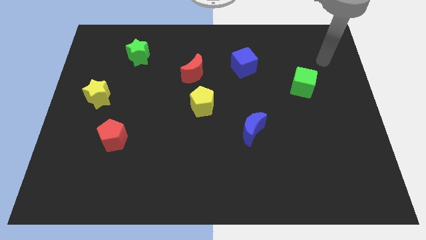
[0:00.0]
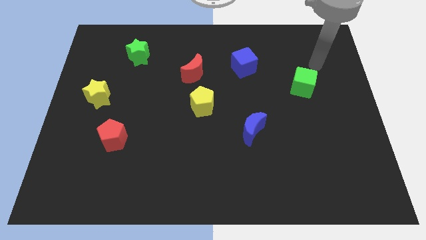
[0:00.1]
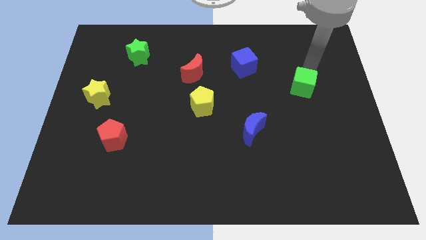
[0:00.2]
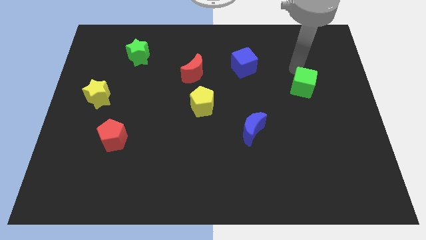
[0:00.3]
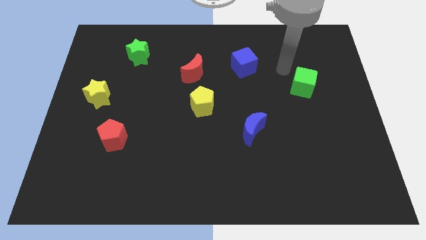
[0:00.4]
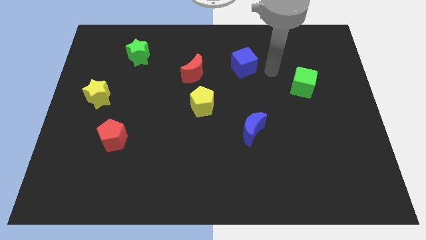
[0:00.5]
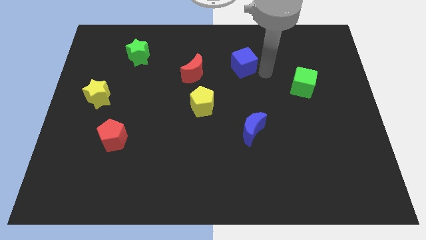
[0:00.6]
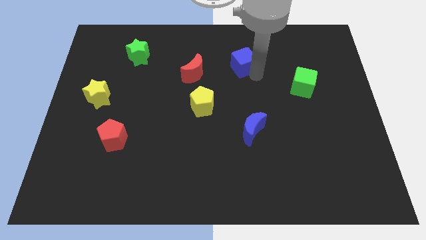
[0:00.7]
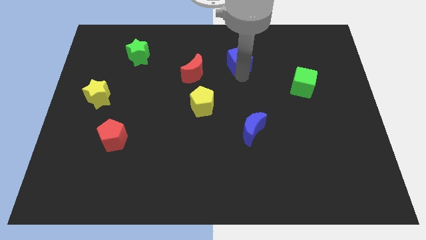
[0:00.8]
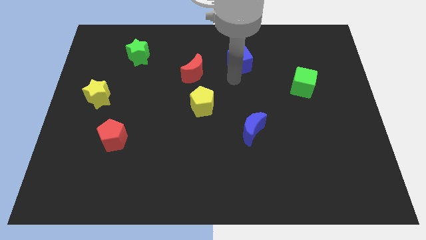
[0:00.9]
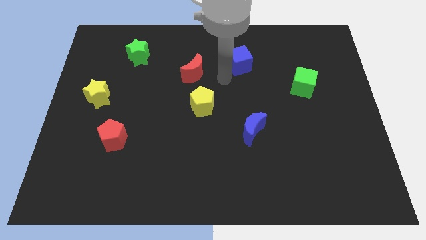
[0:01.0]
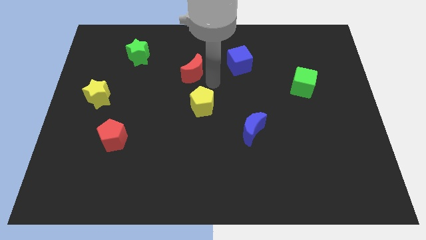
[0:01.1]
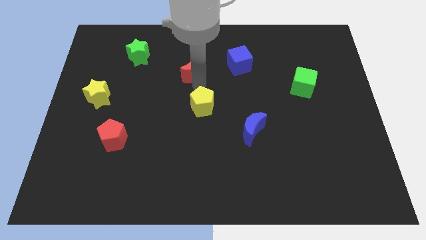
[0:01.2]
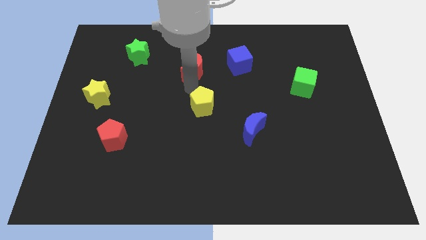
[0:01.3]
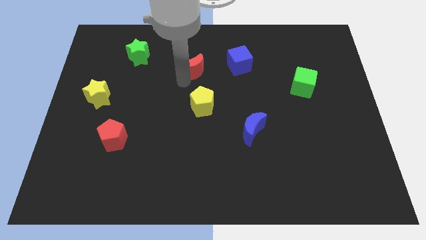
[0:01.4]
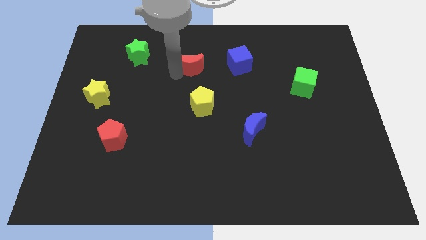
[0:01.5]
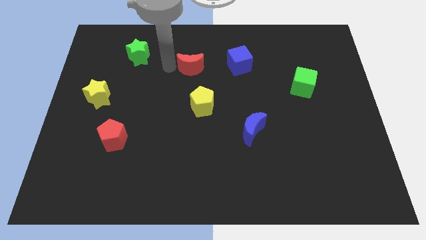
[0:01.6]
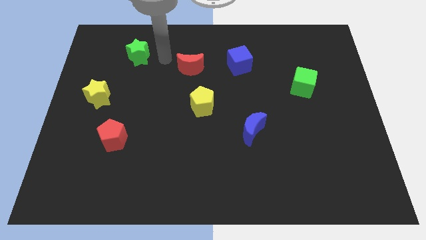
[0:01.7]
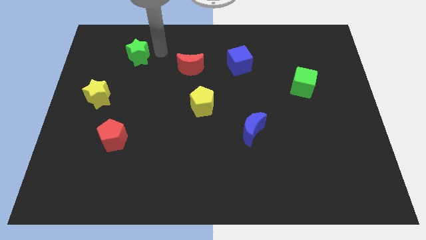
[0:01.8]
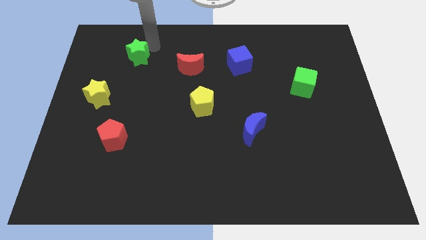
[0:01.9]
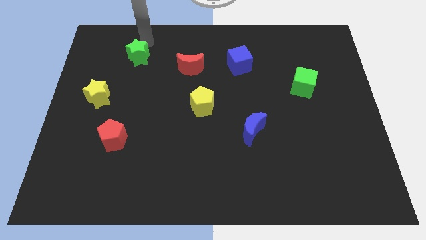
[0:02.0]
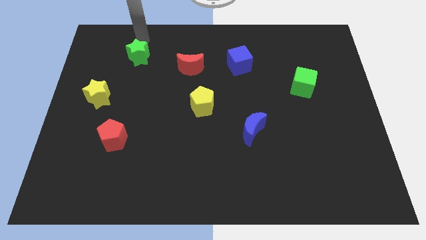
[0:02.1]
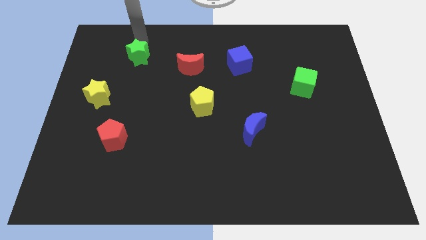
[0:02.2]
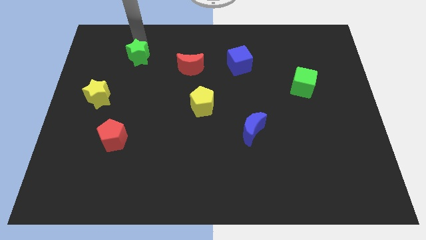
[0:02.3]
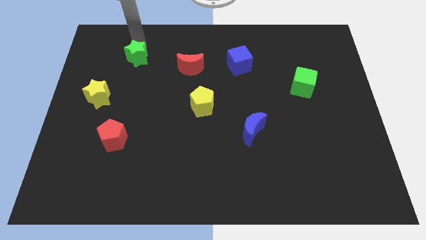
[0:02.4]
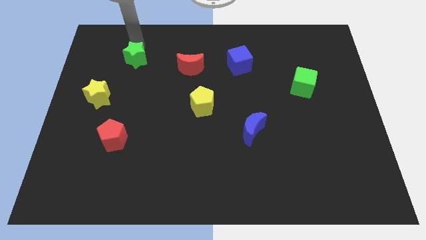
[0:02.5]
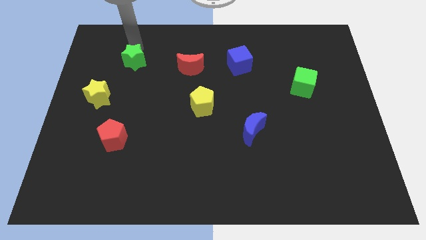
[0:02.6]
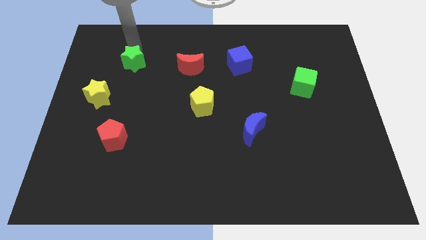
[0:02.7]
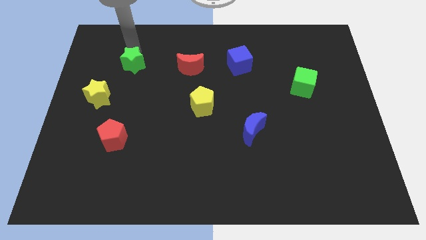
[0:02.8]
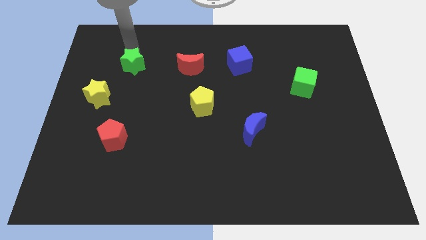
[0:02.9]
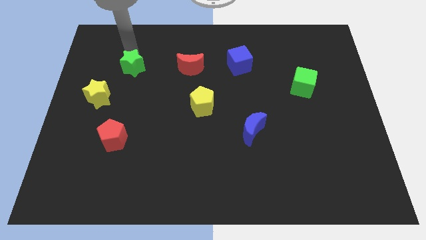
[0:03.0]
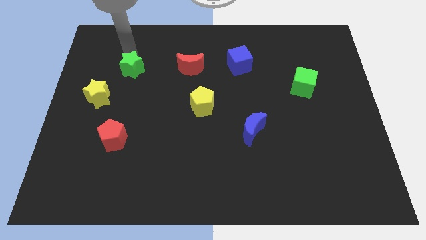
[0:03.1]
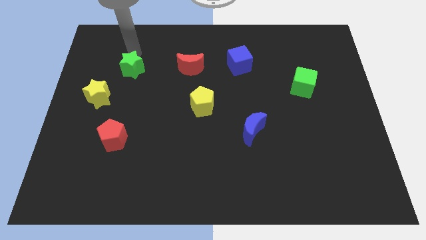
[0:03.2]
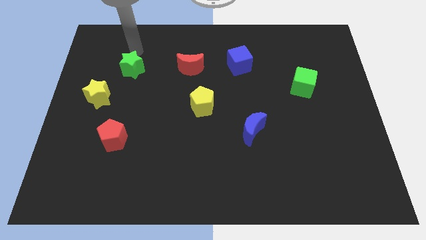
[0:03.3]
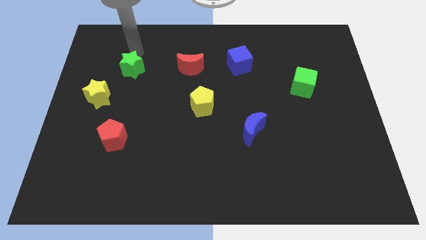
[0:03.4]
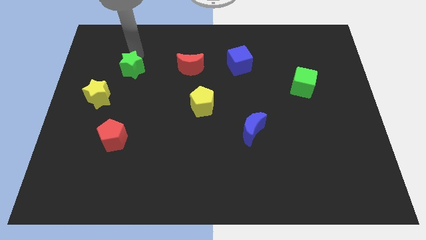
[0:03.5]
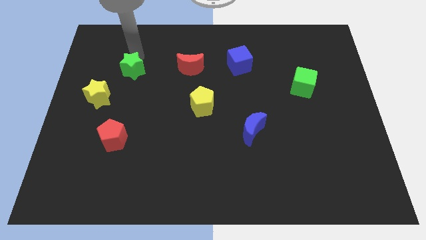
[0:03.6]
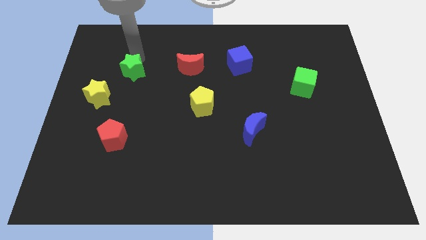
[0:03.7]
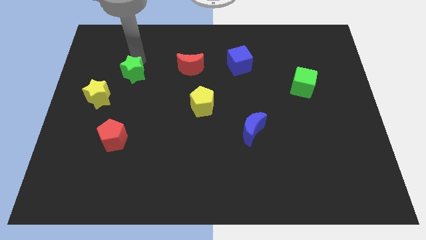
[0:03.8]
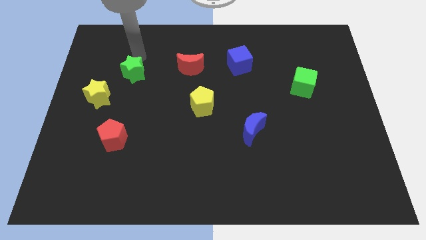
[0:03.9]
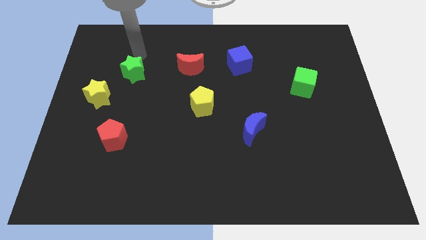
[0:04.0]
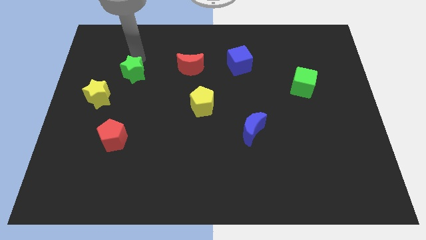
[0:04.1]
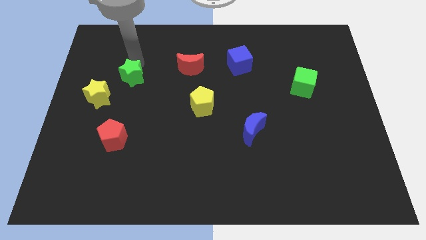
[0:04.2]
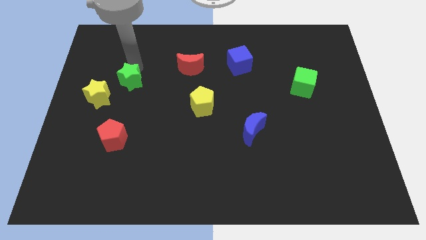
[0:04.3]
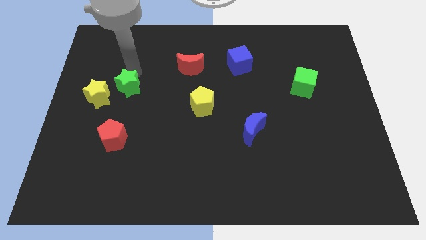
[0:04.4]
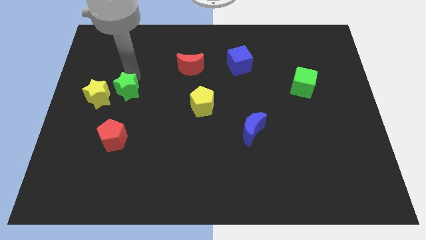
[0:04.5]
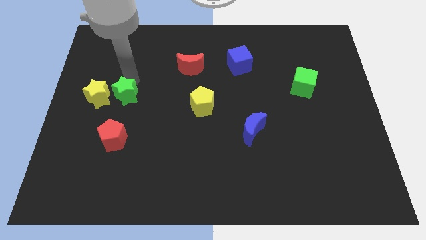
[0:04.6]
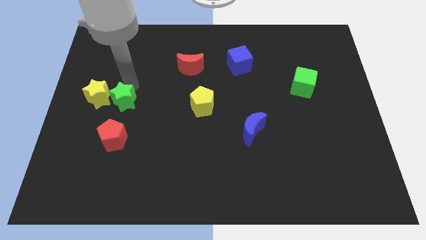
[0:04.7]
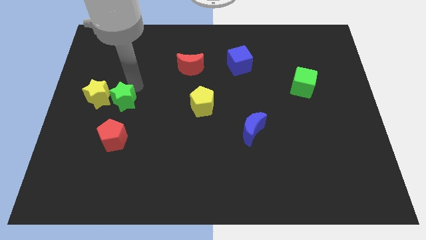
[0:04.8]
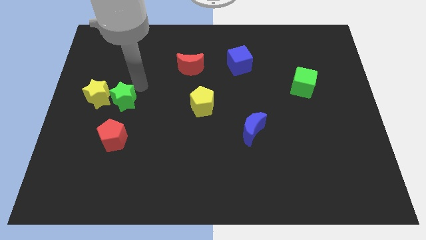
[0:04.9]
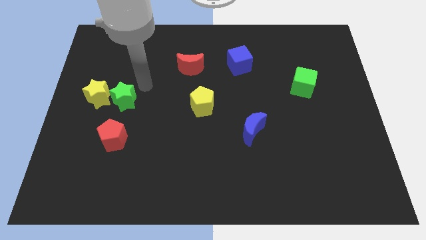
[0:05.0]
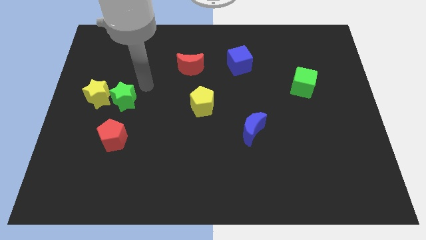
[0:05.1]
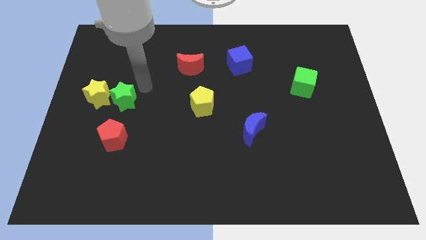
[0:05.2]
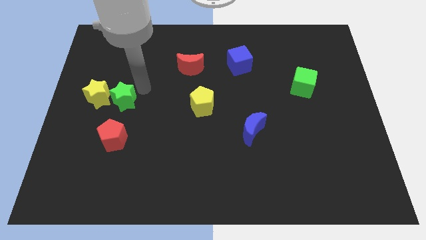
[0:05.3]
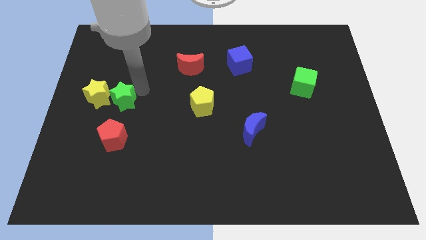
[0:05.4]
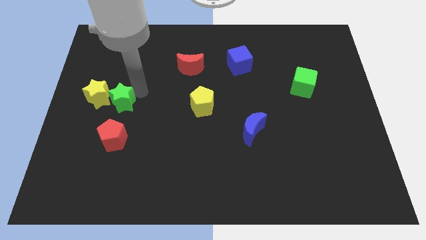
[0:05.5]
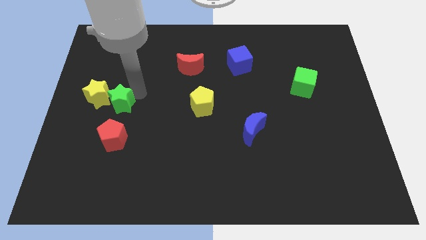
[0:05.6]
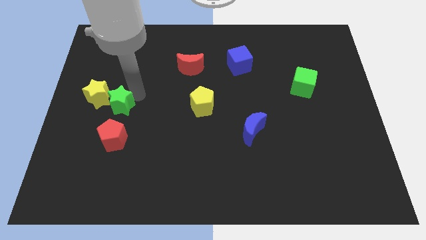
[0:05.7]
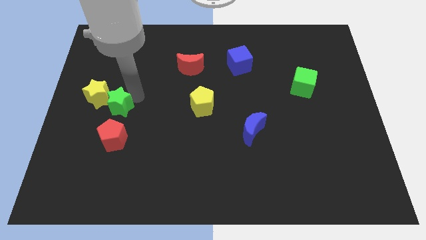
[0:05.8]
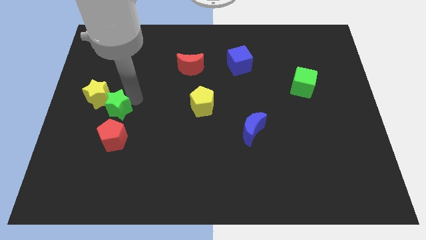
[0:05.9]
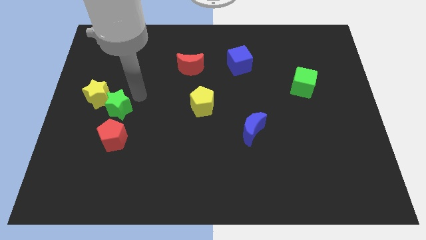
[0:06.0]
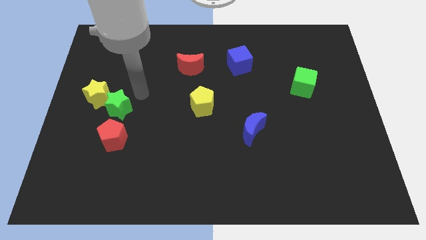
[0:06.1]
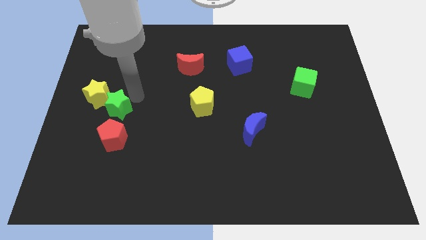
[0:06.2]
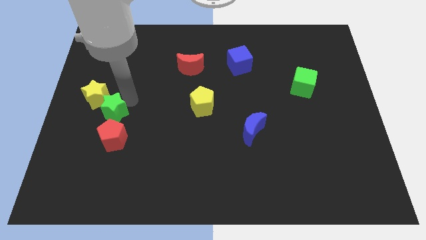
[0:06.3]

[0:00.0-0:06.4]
push the green star to the bottom side of the yellow star

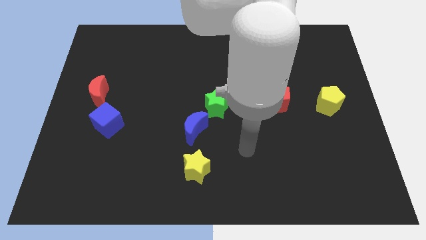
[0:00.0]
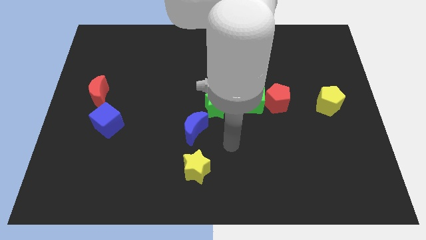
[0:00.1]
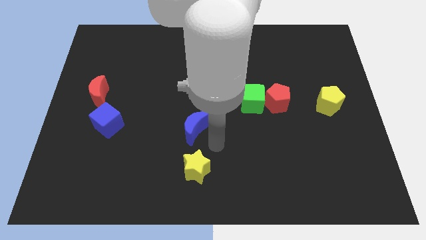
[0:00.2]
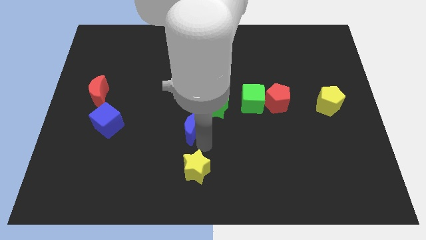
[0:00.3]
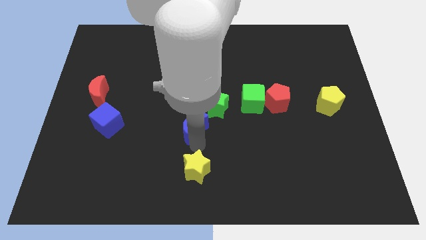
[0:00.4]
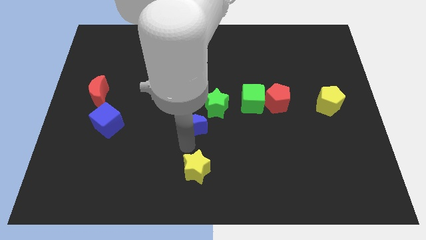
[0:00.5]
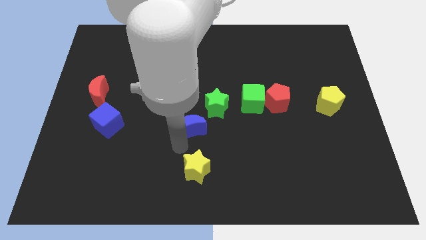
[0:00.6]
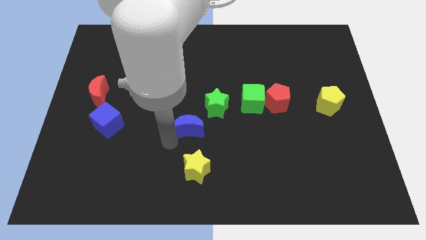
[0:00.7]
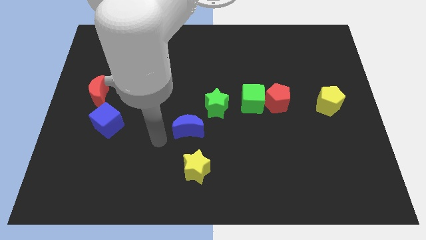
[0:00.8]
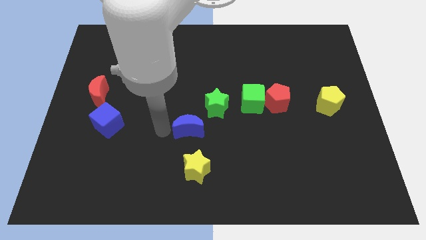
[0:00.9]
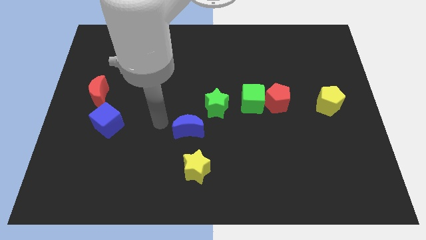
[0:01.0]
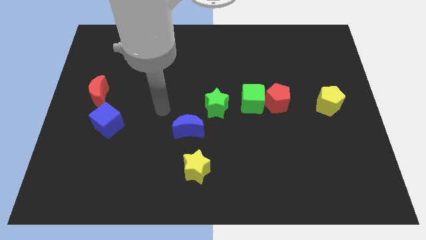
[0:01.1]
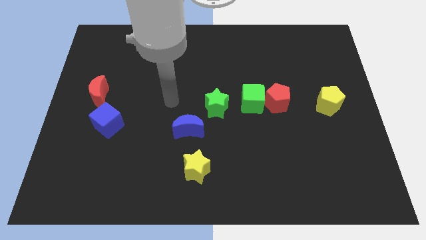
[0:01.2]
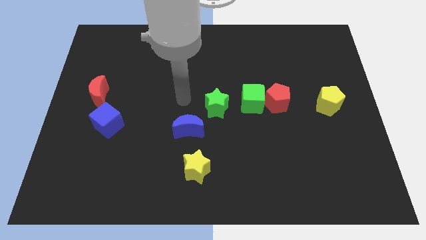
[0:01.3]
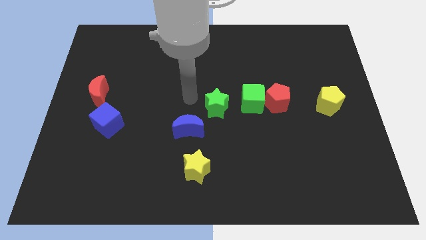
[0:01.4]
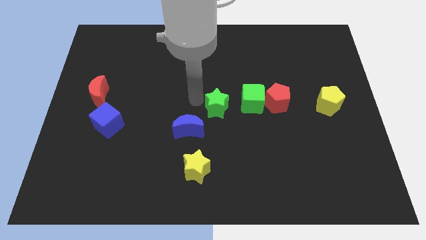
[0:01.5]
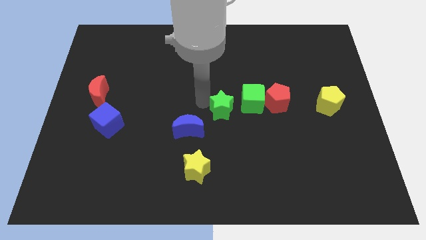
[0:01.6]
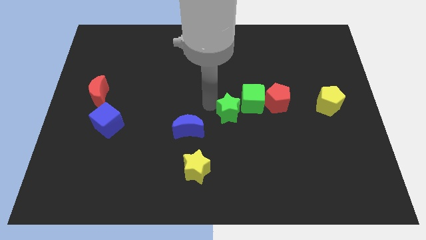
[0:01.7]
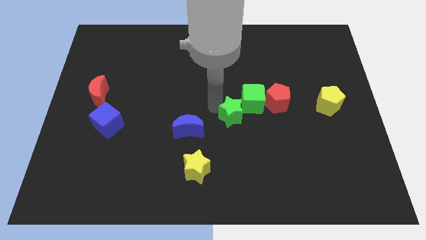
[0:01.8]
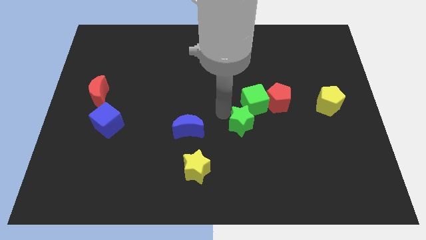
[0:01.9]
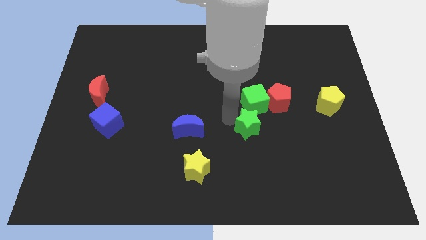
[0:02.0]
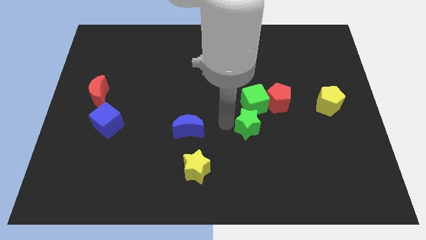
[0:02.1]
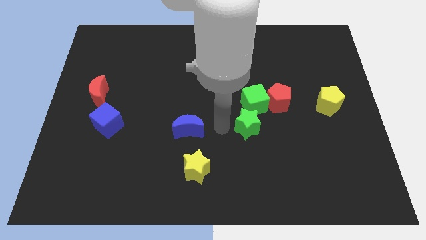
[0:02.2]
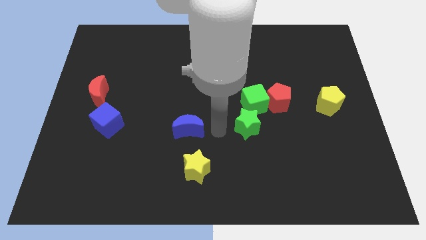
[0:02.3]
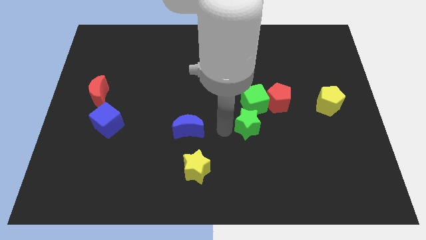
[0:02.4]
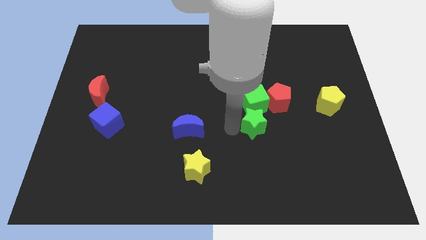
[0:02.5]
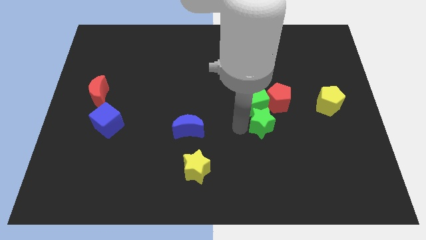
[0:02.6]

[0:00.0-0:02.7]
put the green star to the bottom right of the green cube
